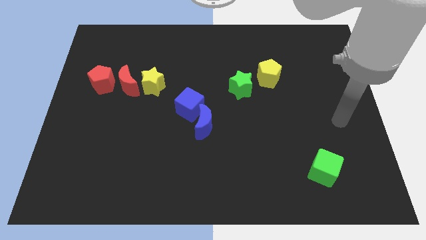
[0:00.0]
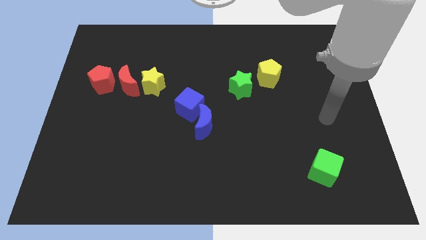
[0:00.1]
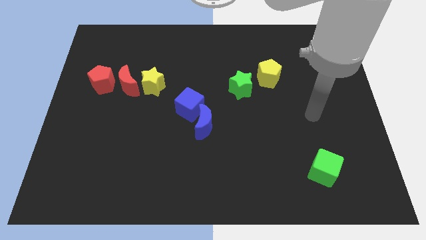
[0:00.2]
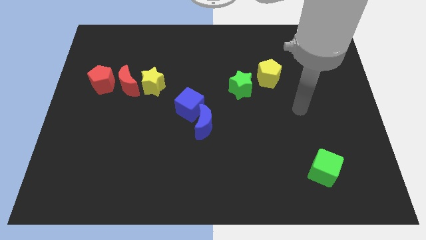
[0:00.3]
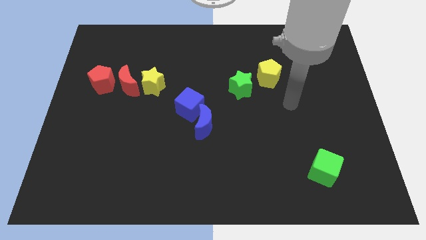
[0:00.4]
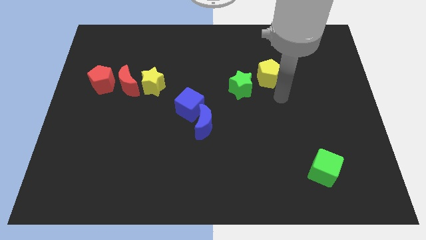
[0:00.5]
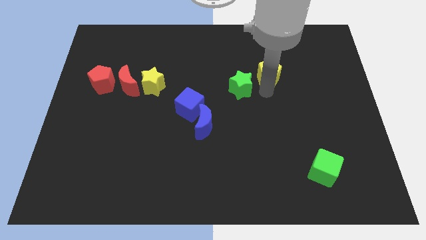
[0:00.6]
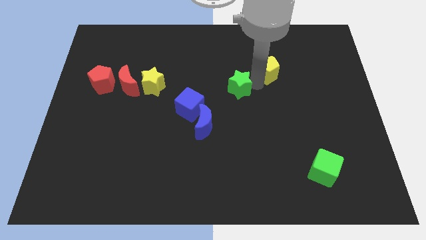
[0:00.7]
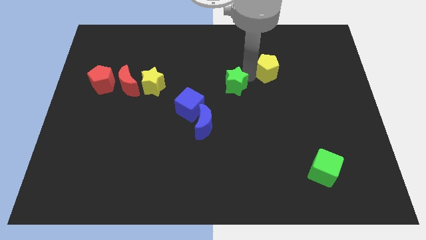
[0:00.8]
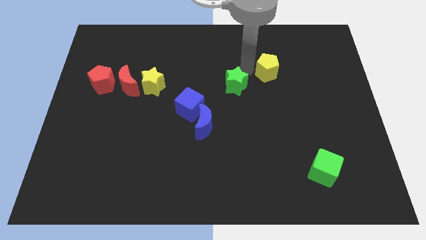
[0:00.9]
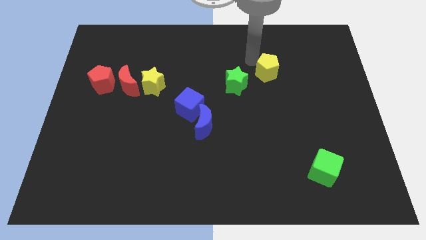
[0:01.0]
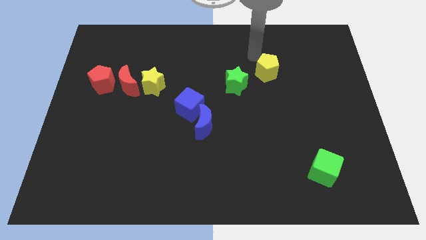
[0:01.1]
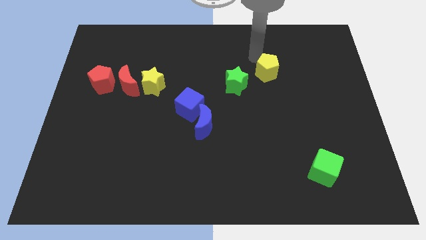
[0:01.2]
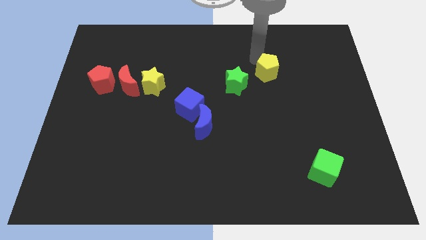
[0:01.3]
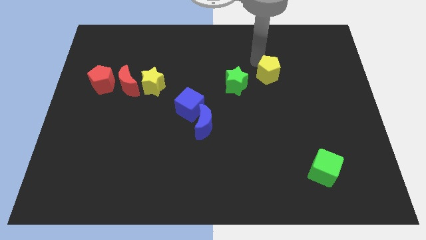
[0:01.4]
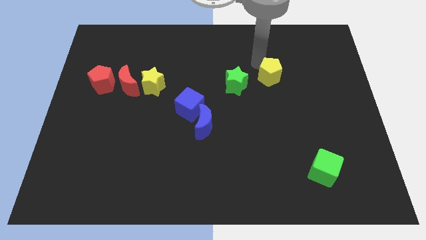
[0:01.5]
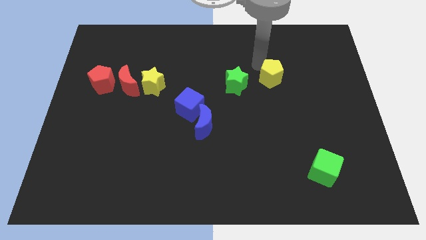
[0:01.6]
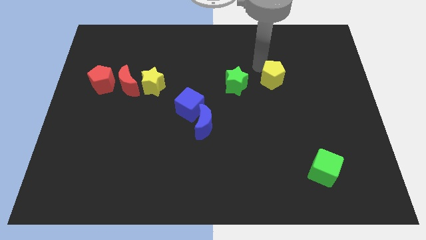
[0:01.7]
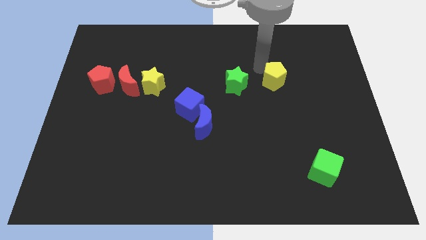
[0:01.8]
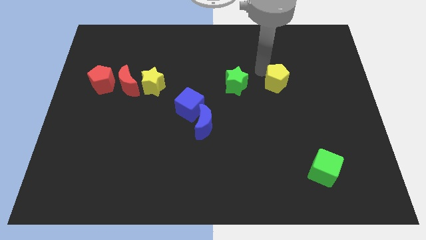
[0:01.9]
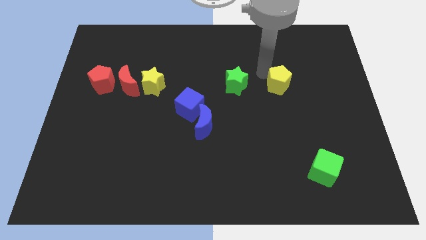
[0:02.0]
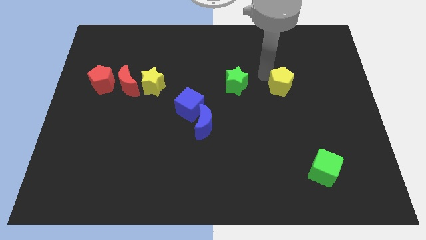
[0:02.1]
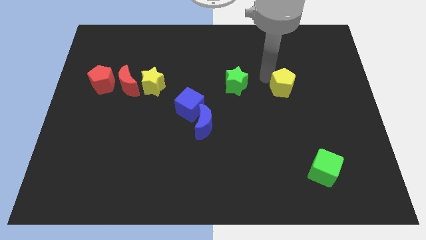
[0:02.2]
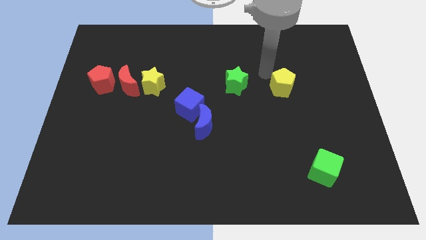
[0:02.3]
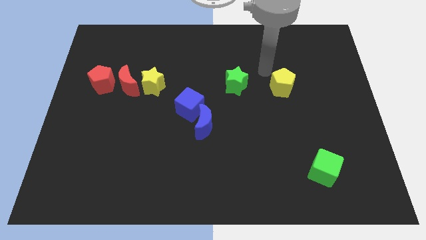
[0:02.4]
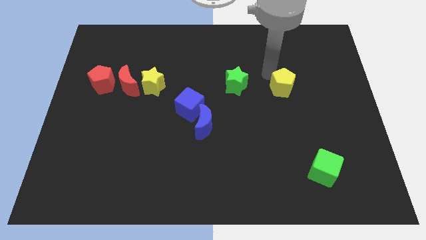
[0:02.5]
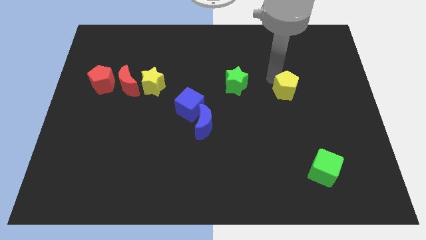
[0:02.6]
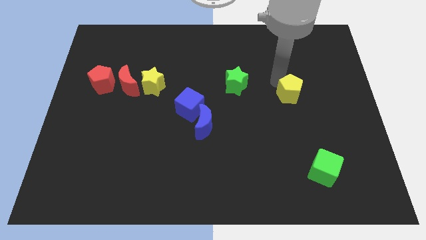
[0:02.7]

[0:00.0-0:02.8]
move the yellow pentagon slightly diagonally down and to the right

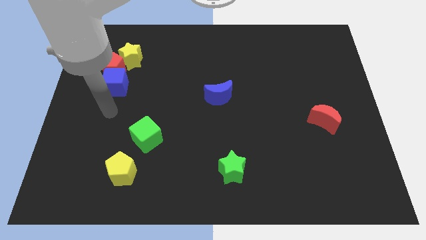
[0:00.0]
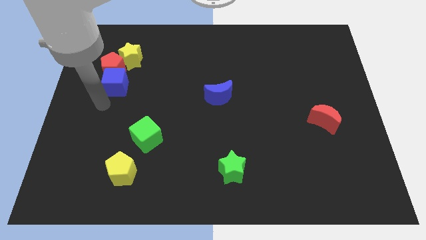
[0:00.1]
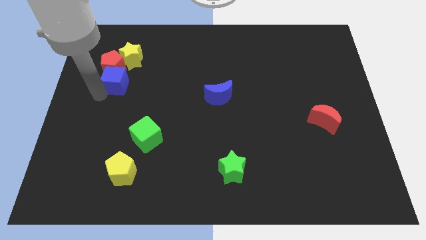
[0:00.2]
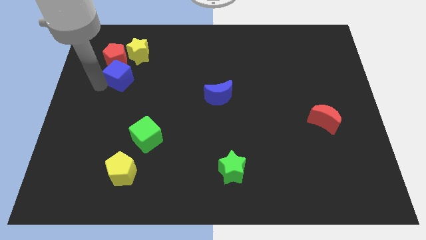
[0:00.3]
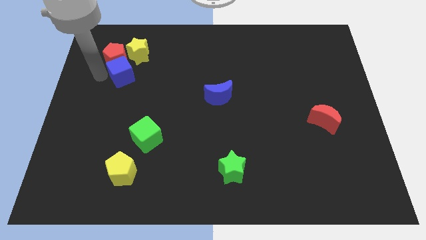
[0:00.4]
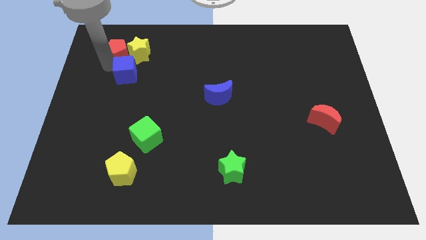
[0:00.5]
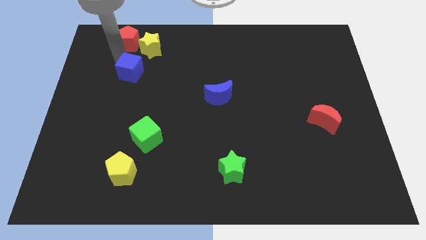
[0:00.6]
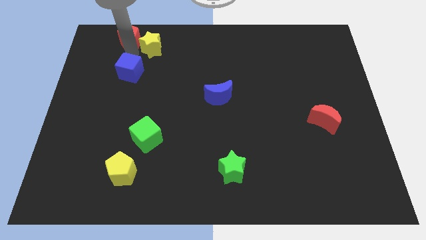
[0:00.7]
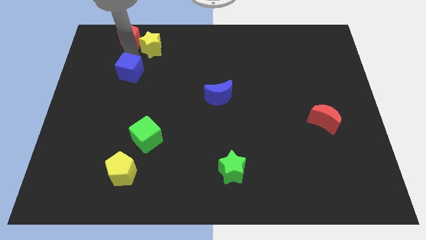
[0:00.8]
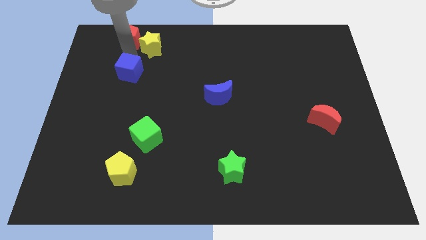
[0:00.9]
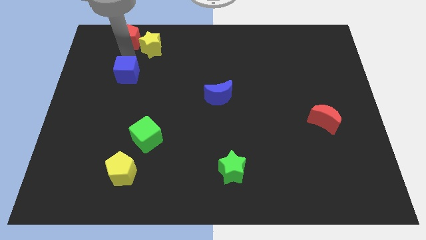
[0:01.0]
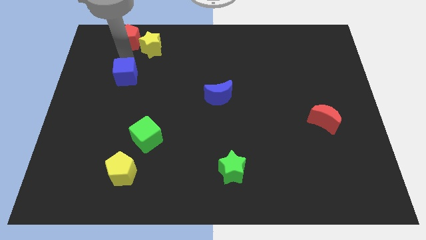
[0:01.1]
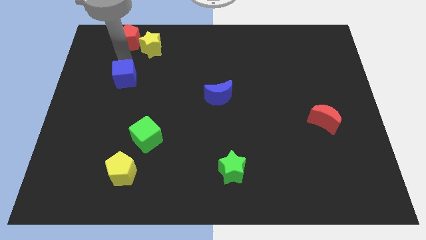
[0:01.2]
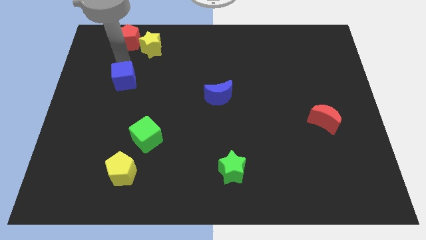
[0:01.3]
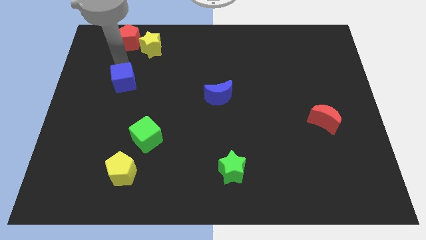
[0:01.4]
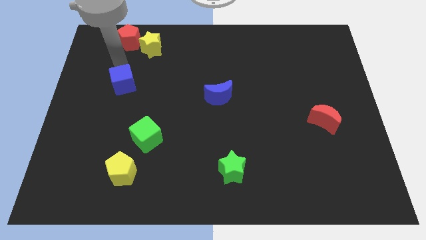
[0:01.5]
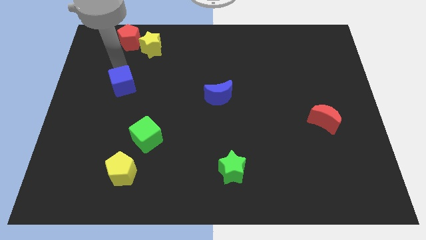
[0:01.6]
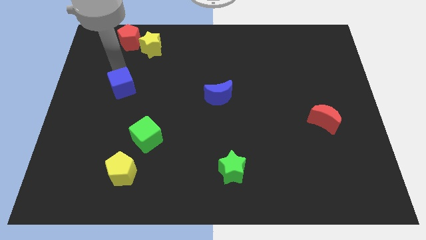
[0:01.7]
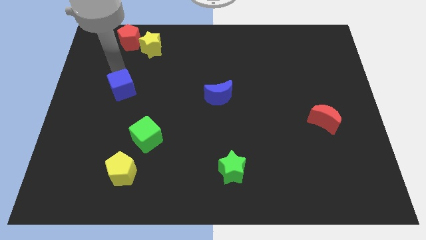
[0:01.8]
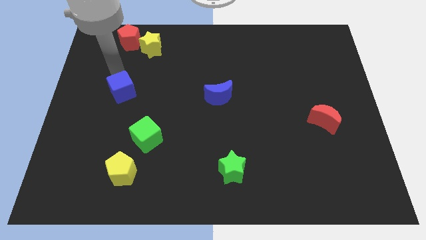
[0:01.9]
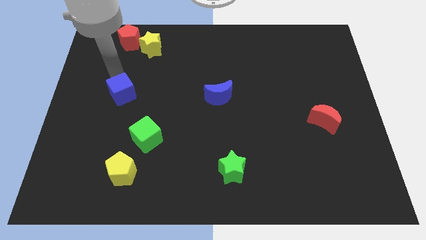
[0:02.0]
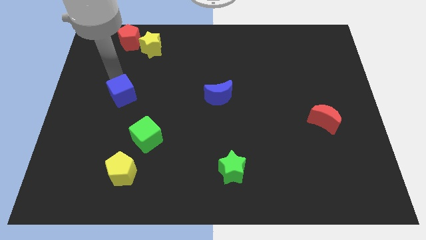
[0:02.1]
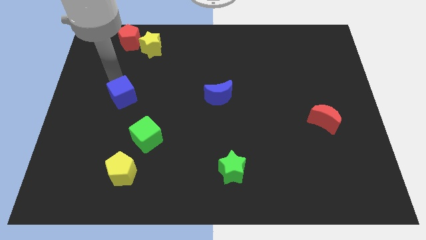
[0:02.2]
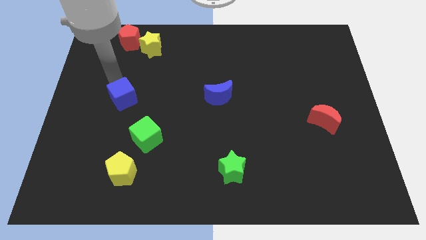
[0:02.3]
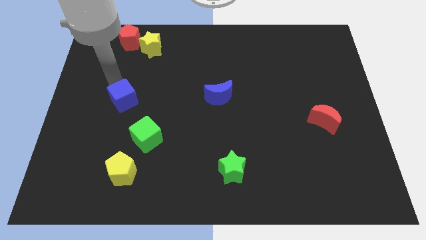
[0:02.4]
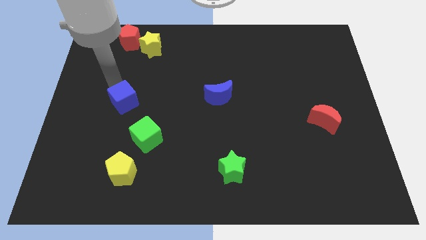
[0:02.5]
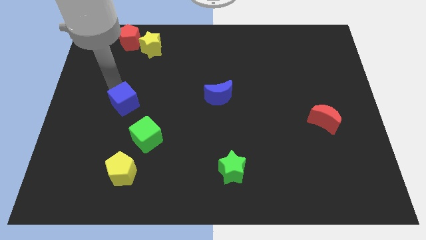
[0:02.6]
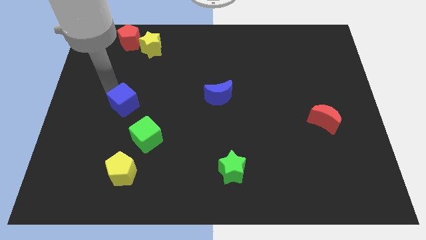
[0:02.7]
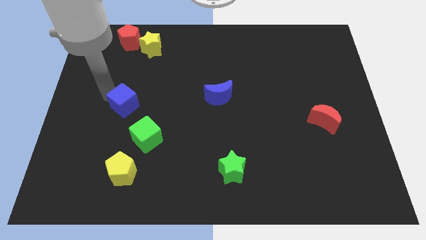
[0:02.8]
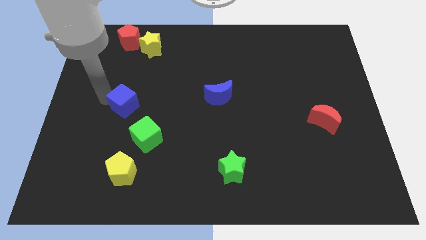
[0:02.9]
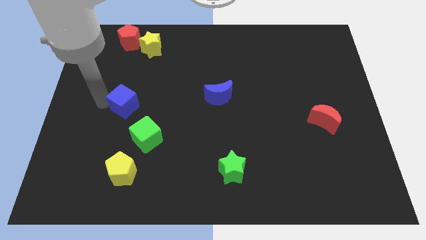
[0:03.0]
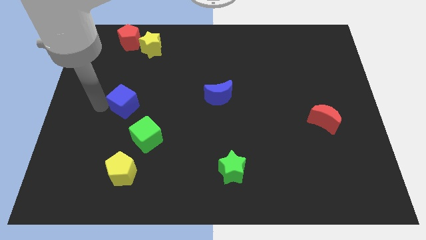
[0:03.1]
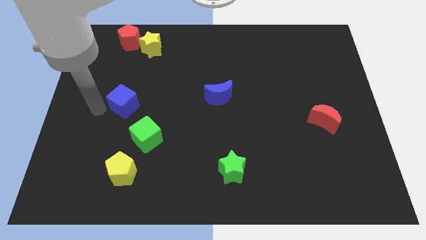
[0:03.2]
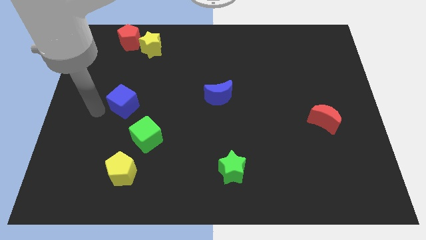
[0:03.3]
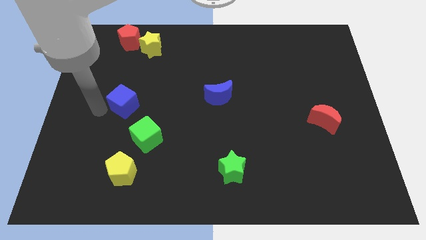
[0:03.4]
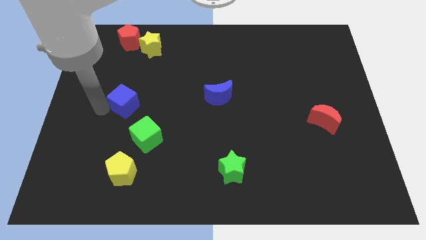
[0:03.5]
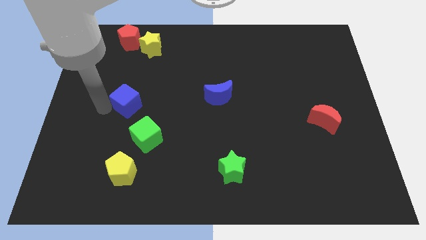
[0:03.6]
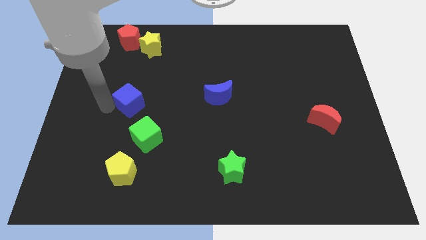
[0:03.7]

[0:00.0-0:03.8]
slightly push the blue cube downwards and right diagonally

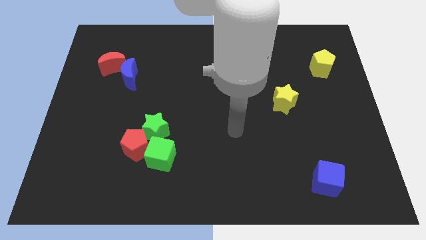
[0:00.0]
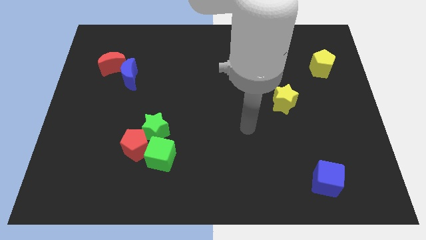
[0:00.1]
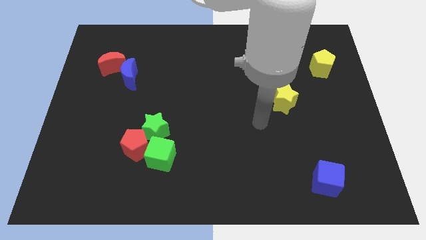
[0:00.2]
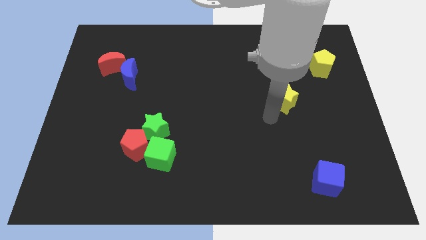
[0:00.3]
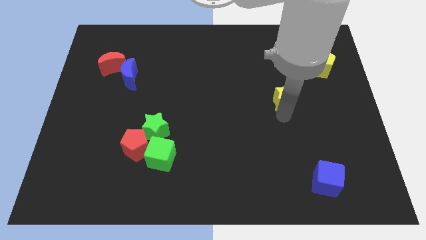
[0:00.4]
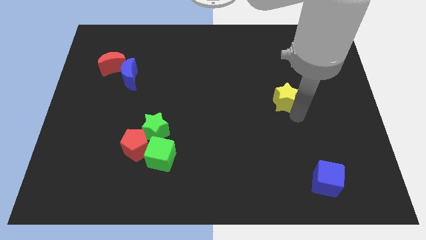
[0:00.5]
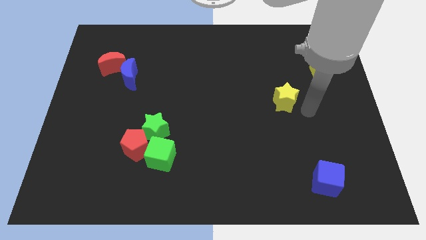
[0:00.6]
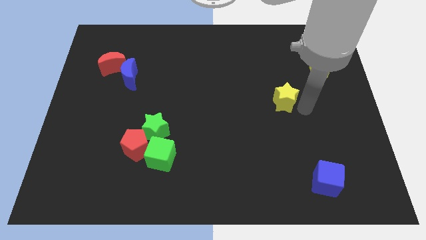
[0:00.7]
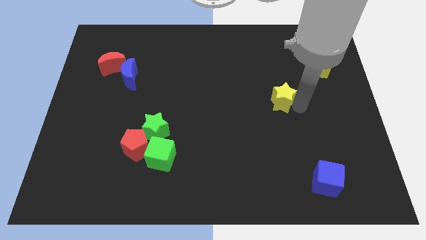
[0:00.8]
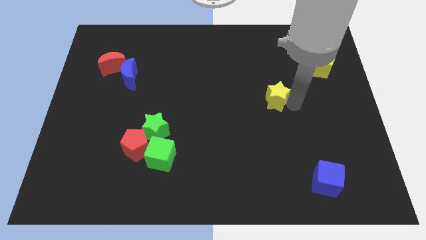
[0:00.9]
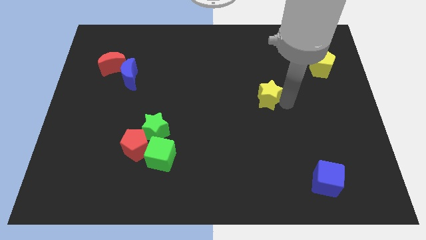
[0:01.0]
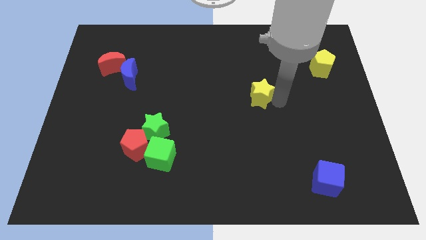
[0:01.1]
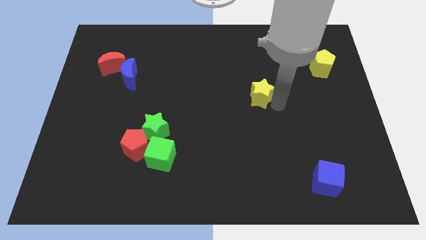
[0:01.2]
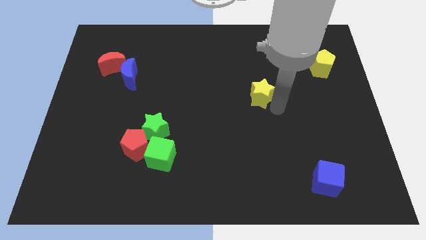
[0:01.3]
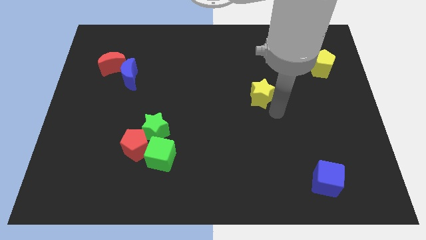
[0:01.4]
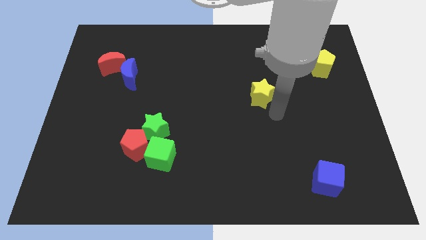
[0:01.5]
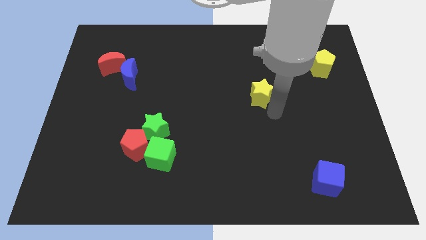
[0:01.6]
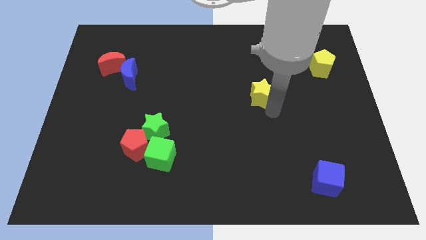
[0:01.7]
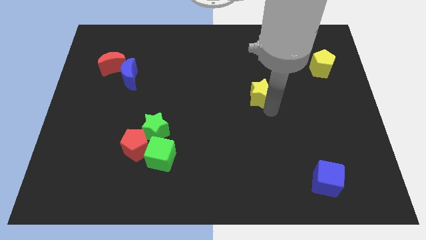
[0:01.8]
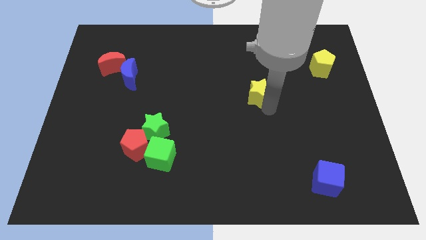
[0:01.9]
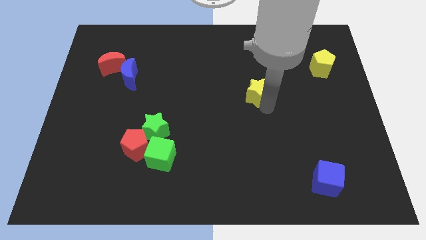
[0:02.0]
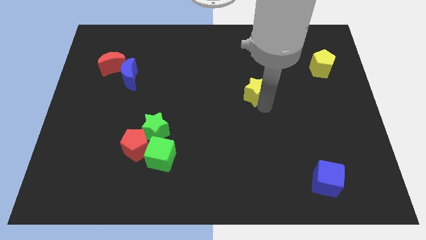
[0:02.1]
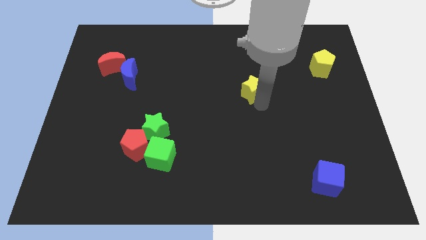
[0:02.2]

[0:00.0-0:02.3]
slightly slide the yellow star up and left diagonally
